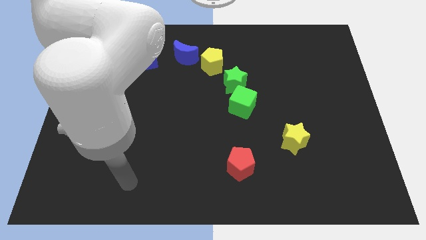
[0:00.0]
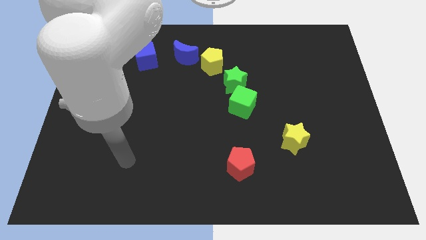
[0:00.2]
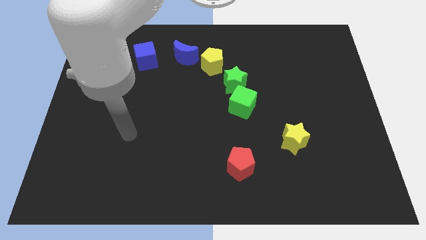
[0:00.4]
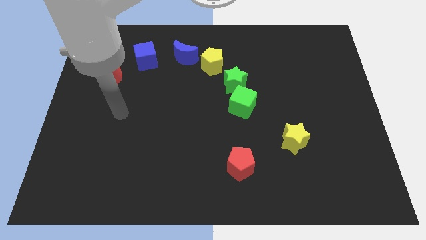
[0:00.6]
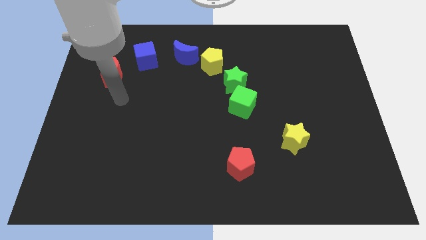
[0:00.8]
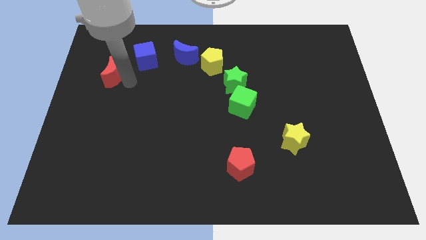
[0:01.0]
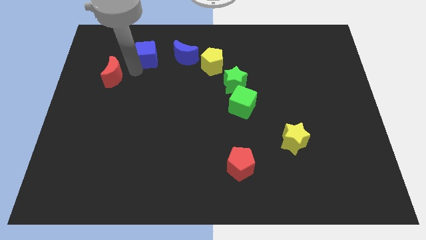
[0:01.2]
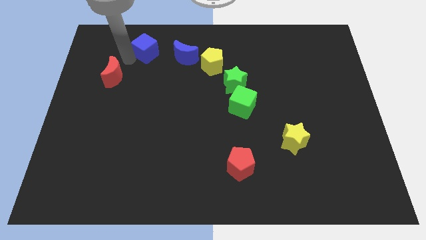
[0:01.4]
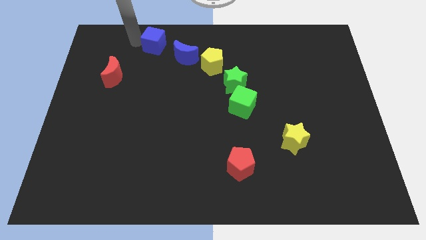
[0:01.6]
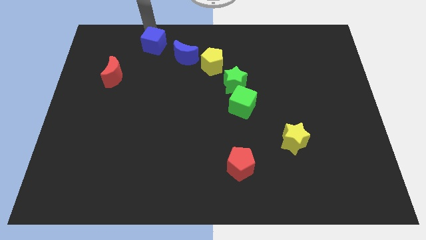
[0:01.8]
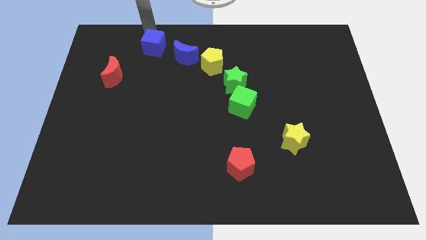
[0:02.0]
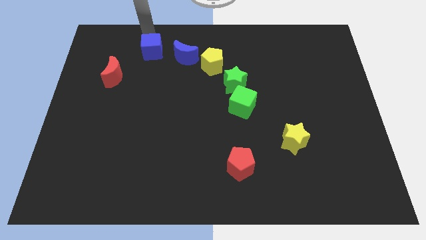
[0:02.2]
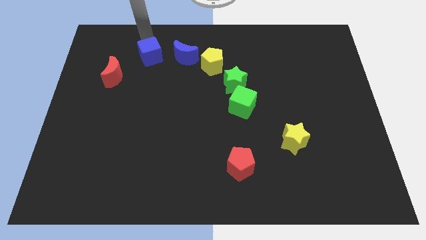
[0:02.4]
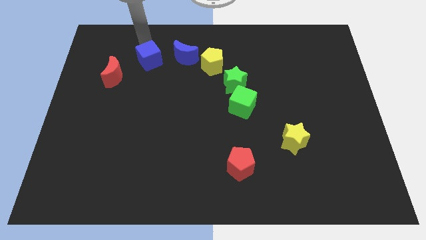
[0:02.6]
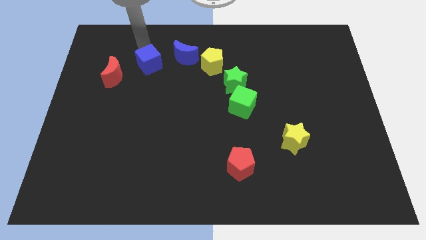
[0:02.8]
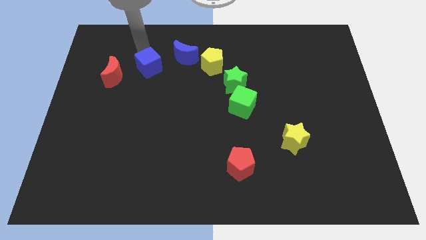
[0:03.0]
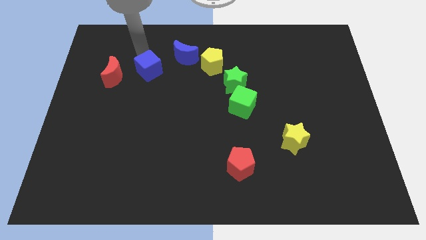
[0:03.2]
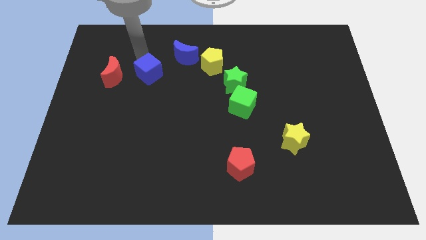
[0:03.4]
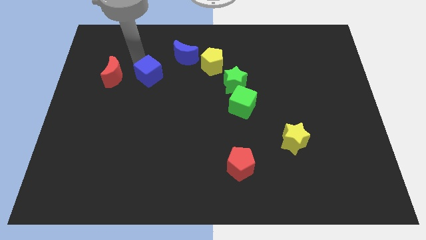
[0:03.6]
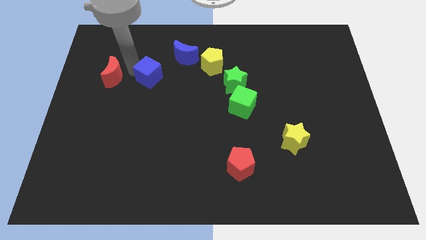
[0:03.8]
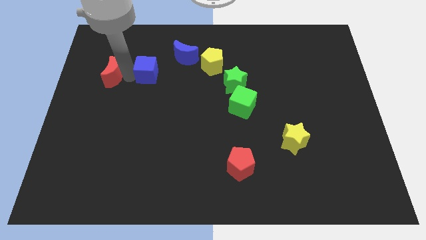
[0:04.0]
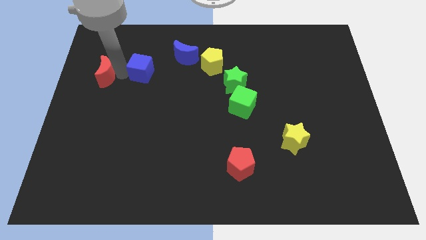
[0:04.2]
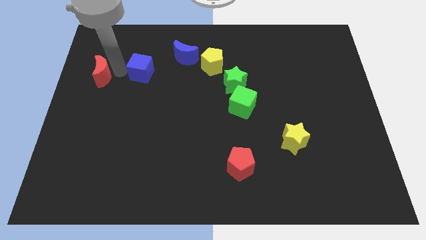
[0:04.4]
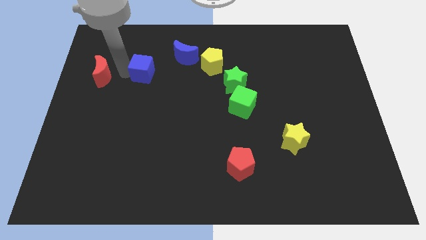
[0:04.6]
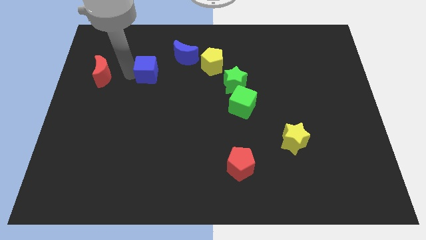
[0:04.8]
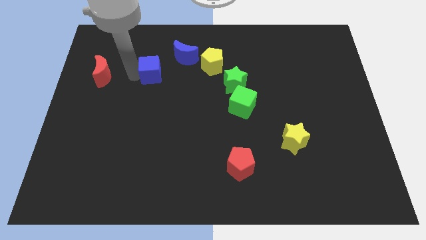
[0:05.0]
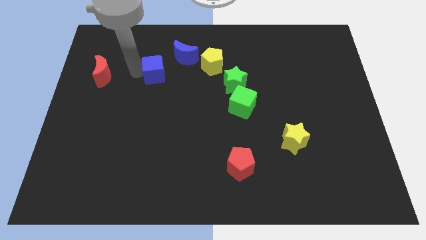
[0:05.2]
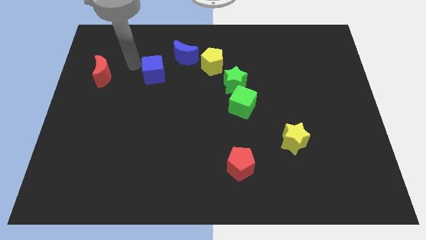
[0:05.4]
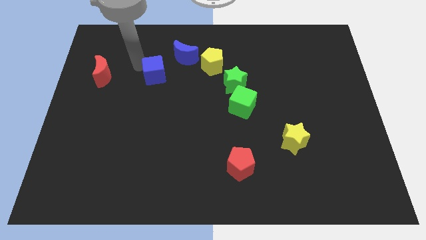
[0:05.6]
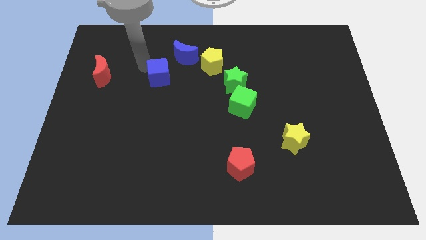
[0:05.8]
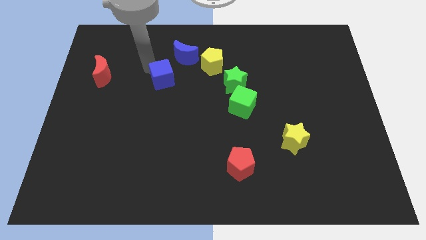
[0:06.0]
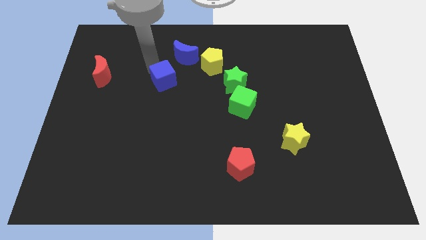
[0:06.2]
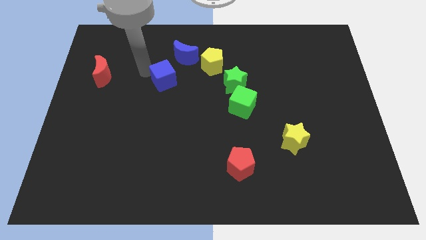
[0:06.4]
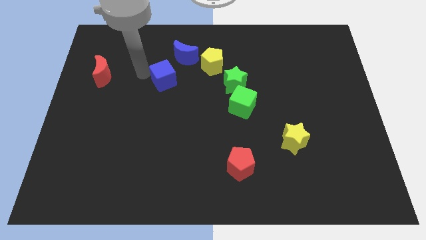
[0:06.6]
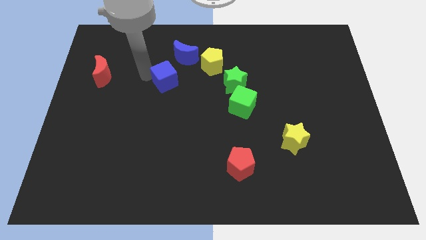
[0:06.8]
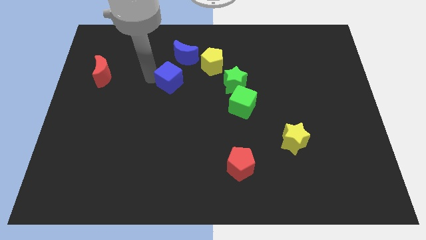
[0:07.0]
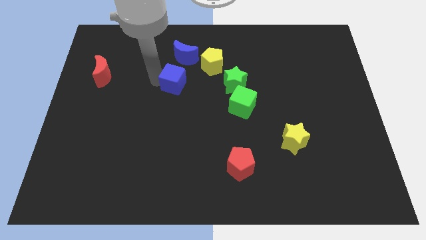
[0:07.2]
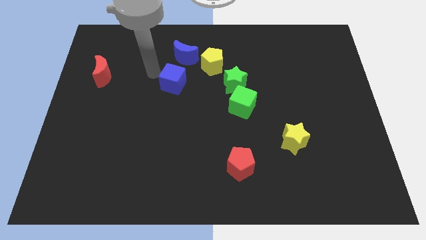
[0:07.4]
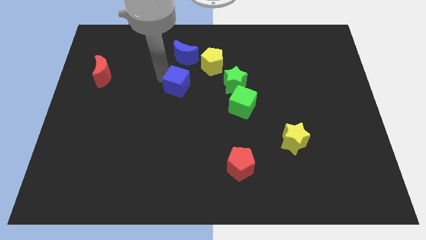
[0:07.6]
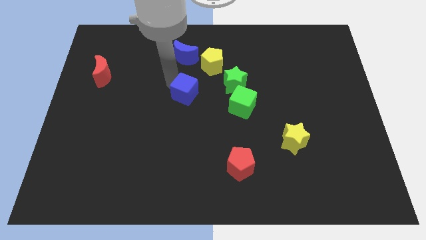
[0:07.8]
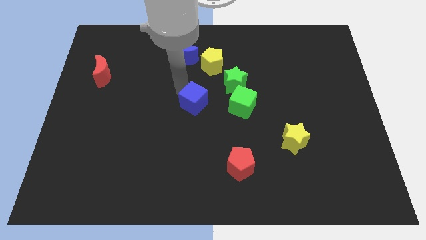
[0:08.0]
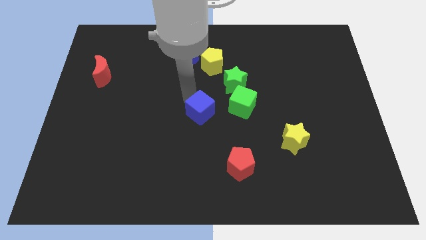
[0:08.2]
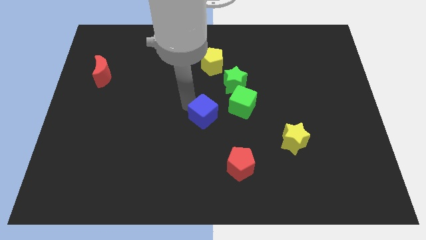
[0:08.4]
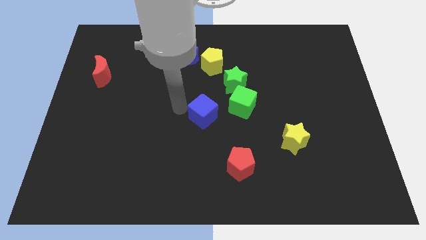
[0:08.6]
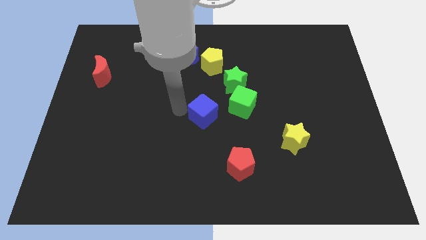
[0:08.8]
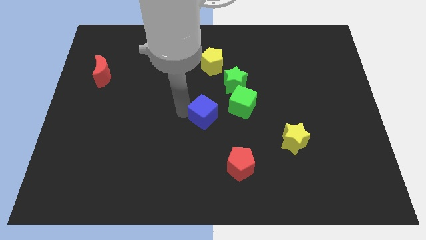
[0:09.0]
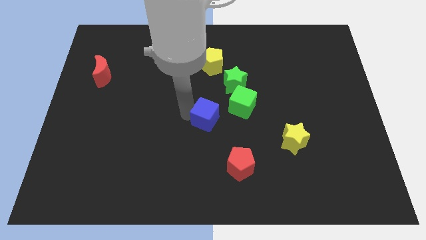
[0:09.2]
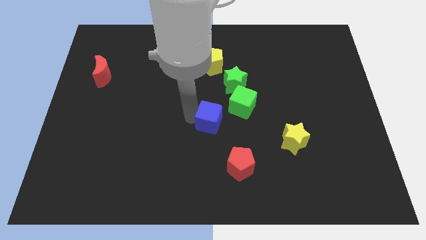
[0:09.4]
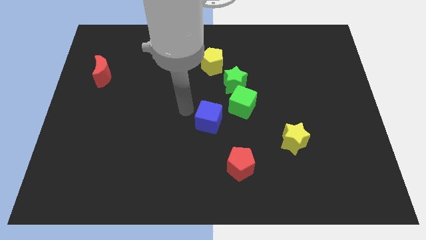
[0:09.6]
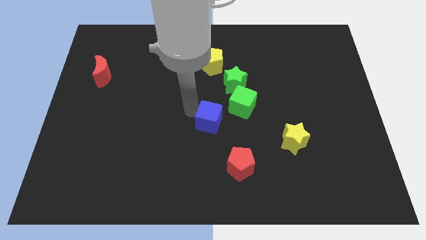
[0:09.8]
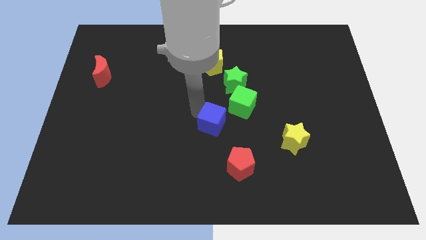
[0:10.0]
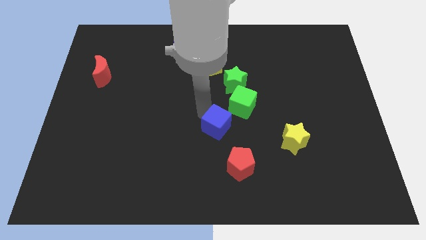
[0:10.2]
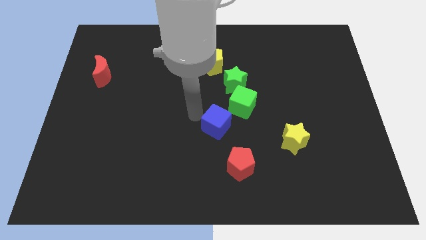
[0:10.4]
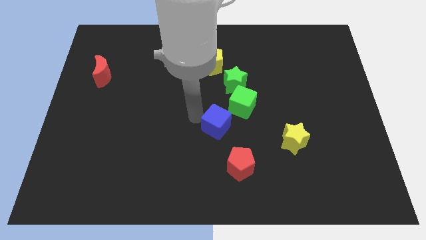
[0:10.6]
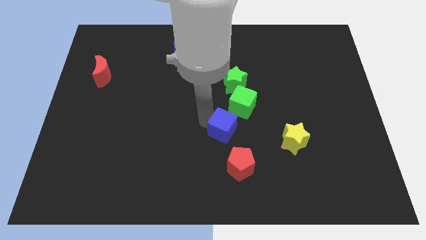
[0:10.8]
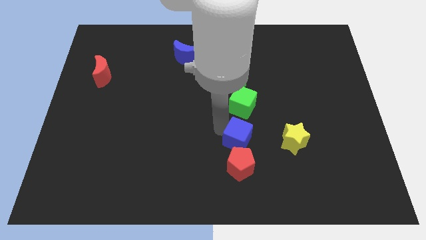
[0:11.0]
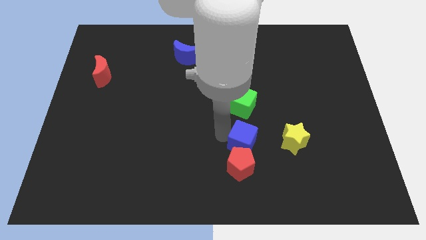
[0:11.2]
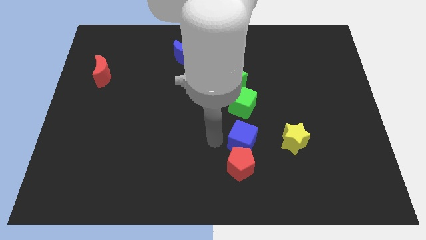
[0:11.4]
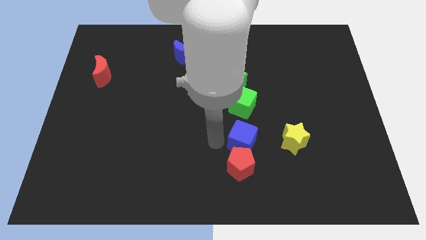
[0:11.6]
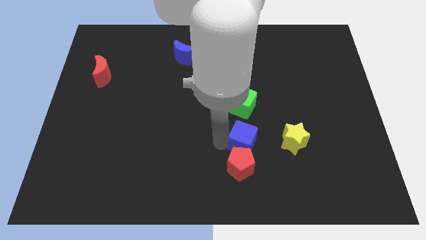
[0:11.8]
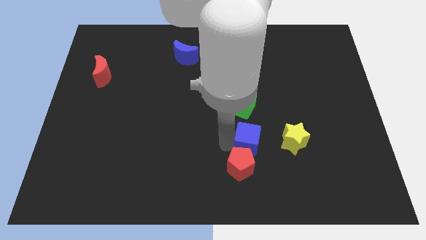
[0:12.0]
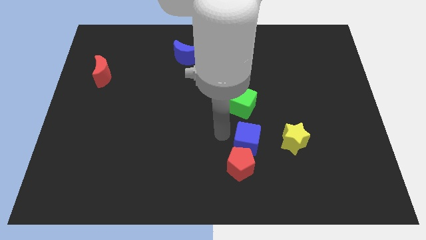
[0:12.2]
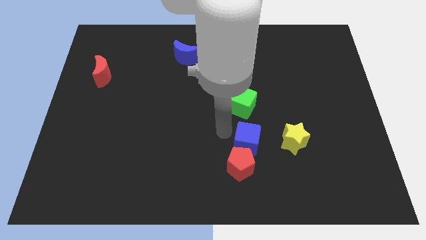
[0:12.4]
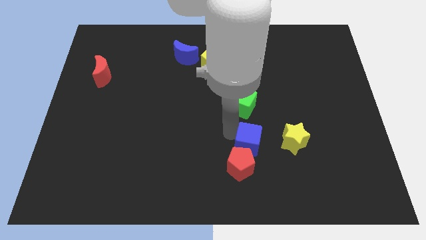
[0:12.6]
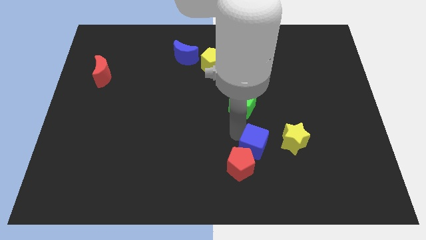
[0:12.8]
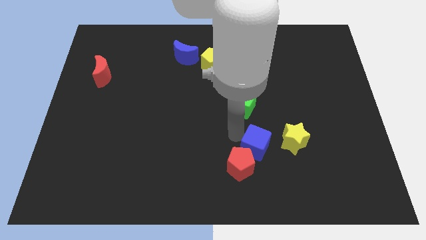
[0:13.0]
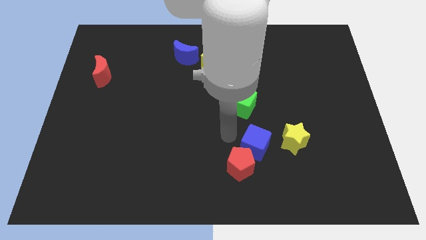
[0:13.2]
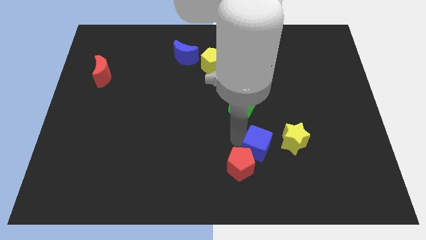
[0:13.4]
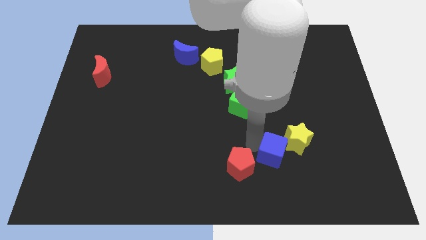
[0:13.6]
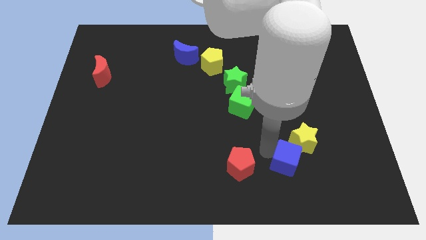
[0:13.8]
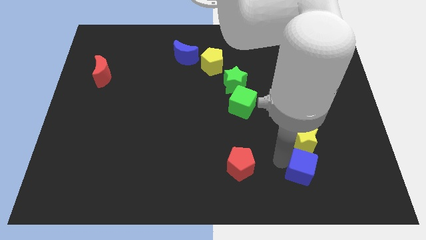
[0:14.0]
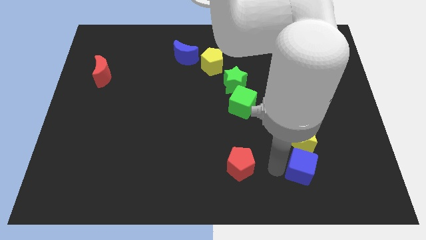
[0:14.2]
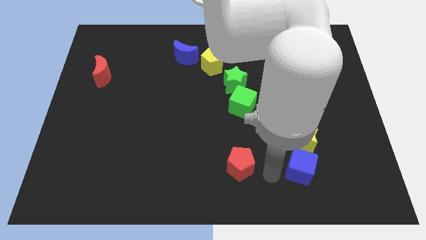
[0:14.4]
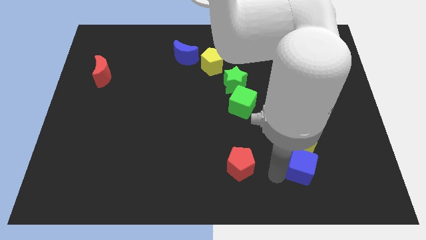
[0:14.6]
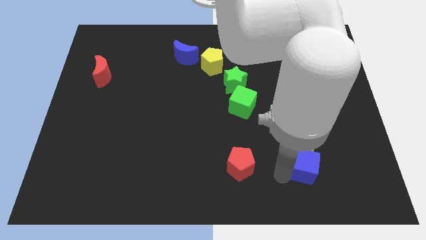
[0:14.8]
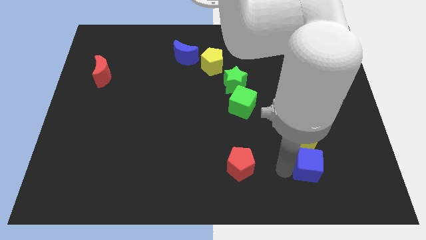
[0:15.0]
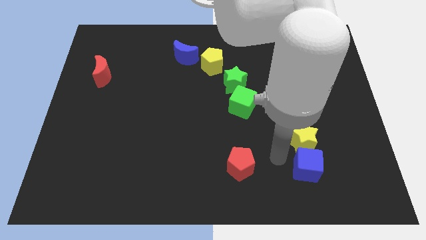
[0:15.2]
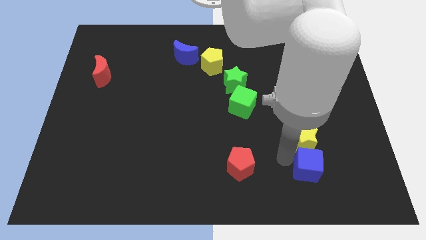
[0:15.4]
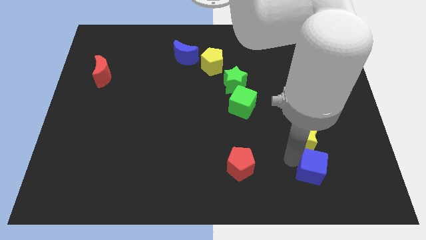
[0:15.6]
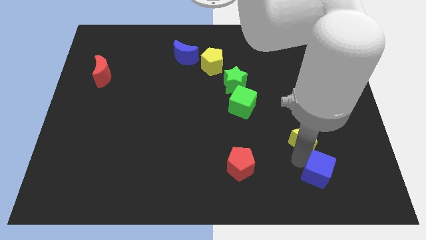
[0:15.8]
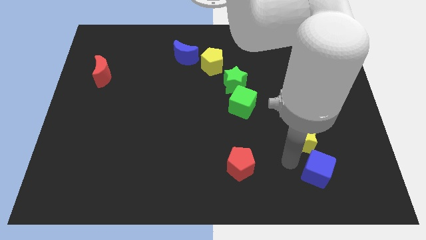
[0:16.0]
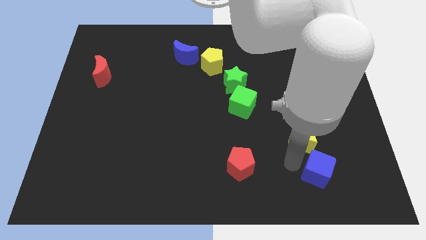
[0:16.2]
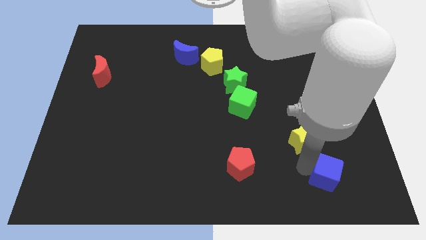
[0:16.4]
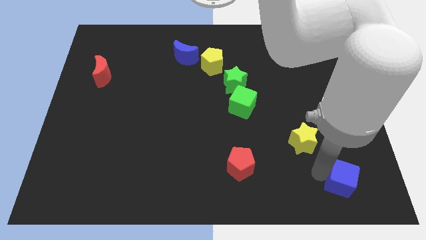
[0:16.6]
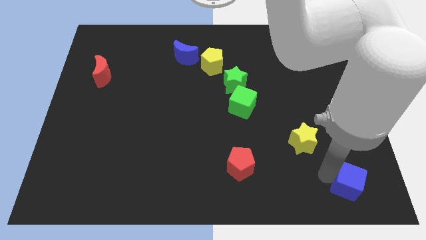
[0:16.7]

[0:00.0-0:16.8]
slide the blue cube to the lower right corner
